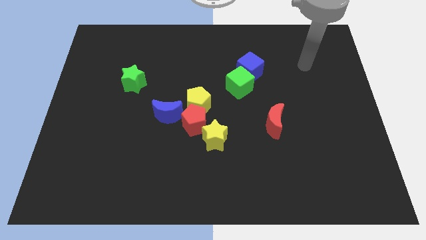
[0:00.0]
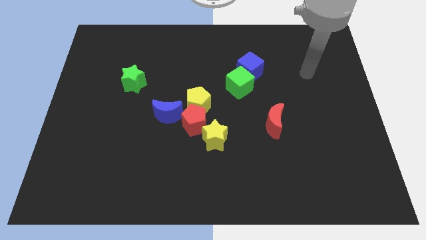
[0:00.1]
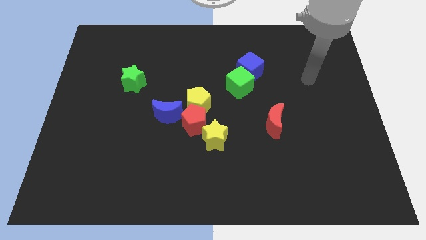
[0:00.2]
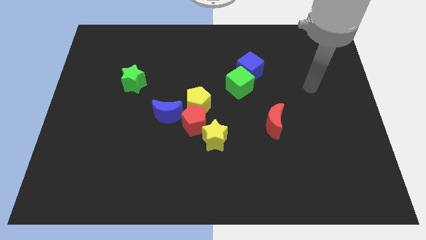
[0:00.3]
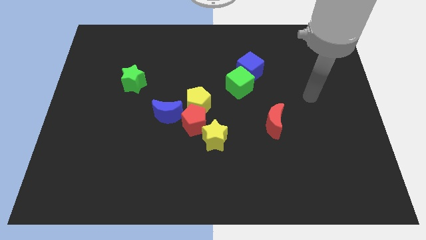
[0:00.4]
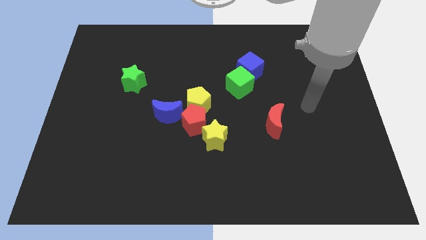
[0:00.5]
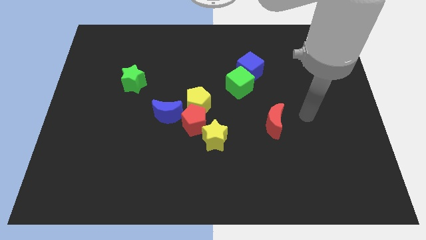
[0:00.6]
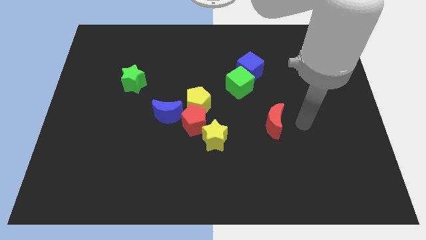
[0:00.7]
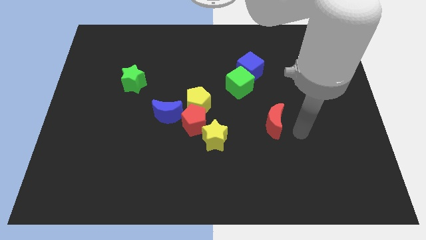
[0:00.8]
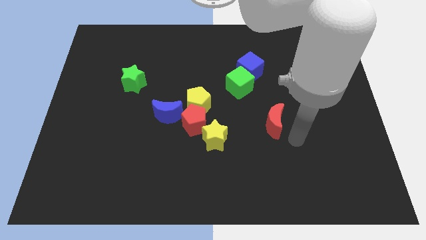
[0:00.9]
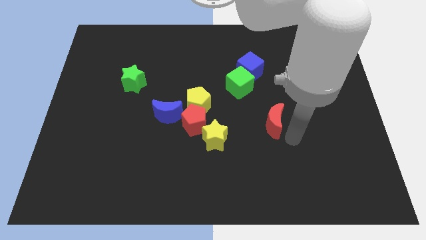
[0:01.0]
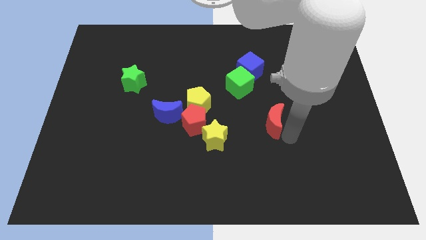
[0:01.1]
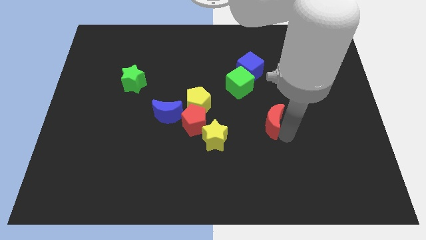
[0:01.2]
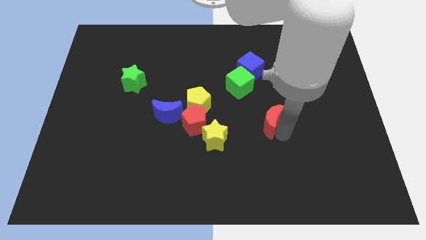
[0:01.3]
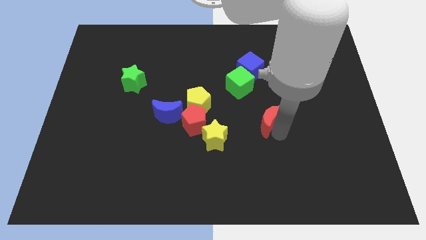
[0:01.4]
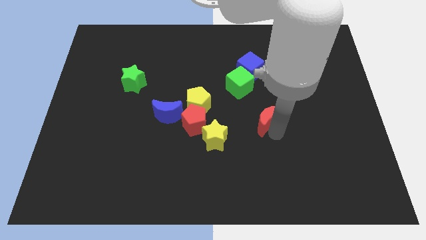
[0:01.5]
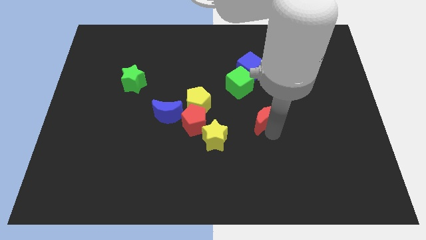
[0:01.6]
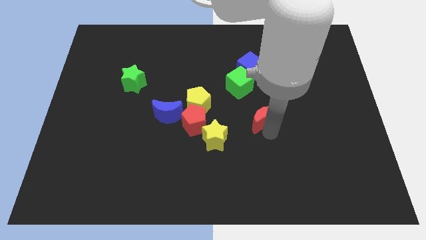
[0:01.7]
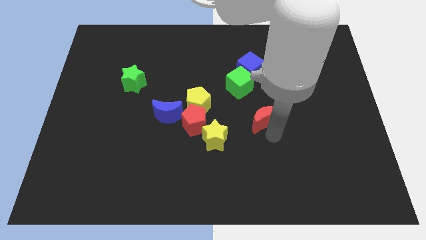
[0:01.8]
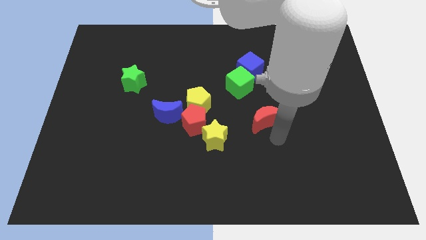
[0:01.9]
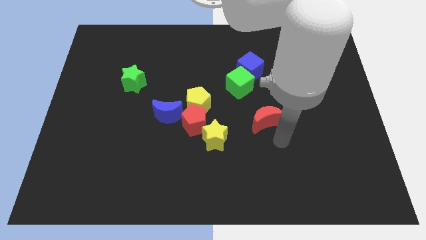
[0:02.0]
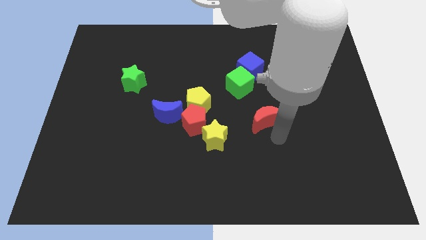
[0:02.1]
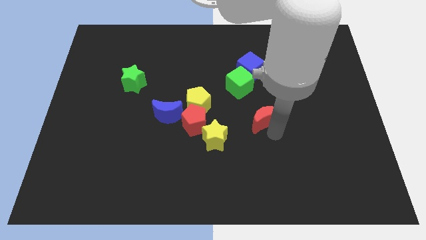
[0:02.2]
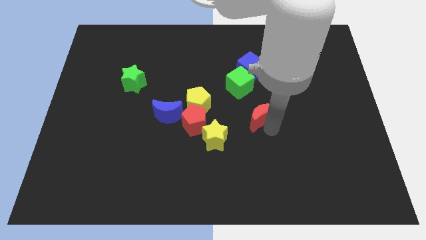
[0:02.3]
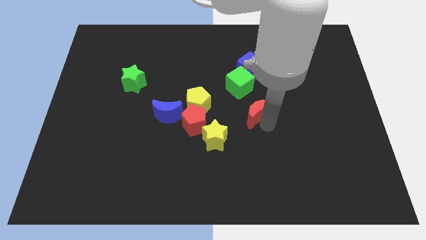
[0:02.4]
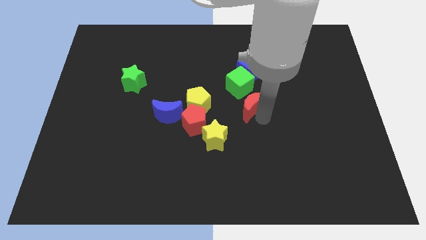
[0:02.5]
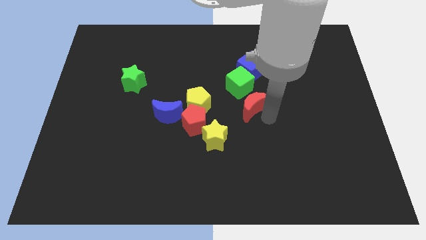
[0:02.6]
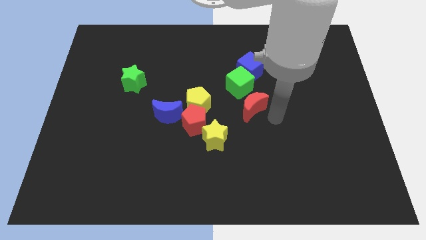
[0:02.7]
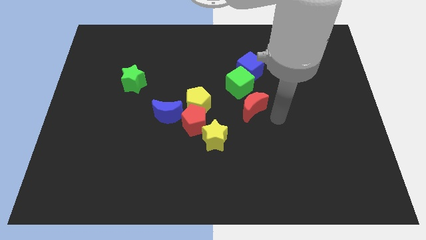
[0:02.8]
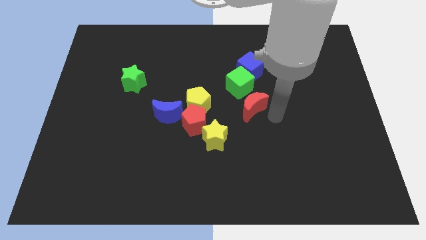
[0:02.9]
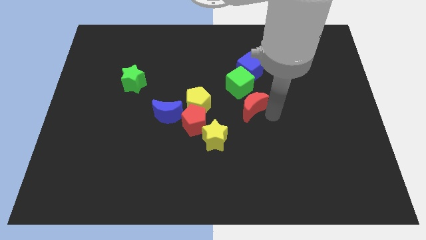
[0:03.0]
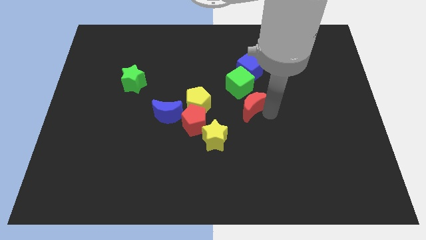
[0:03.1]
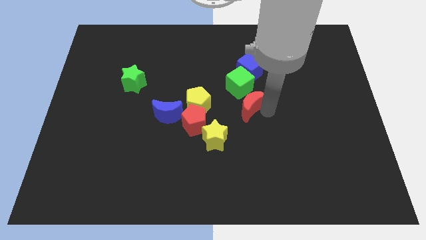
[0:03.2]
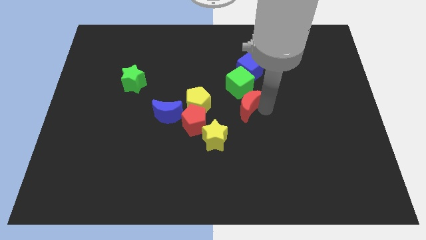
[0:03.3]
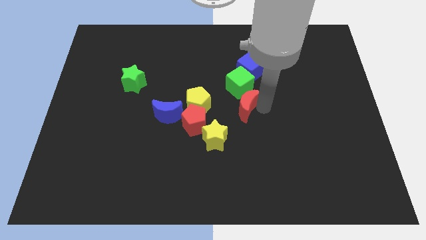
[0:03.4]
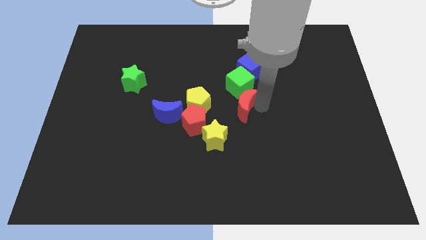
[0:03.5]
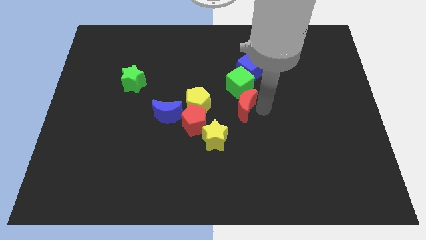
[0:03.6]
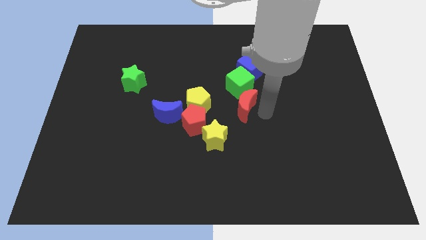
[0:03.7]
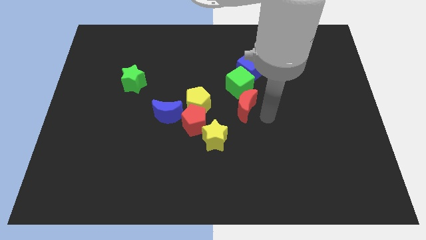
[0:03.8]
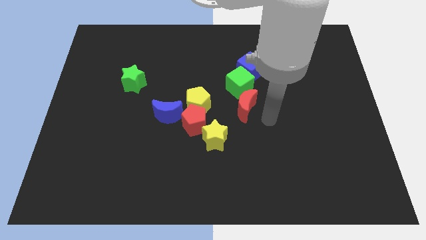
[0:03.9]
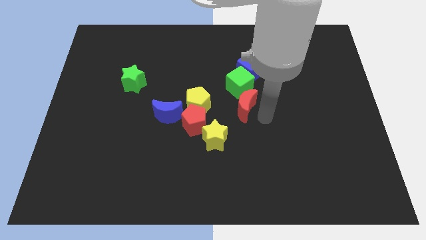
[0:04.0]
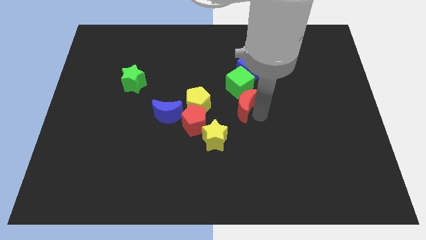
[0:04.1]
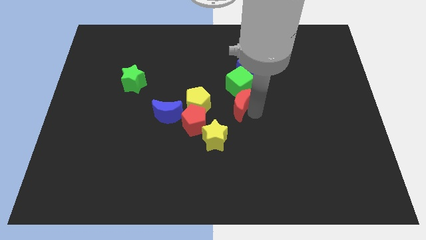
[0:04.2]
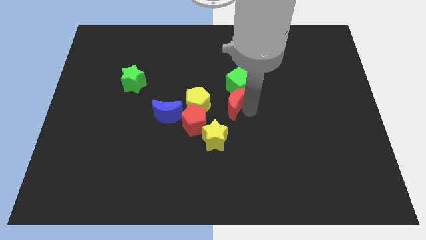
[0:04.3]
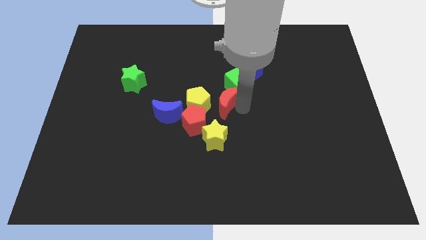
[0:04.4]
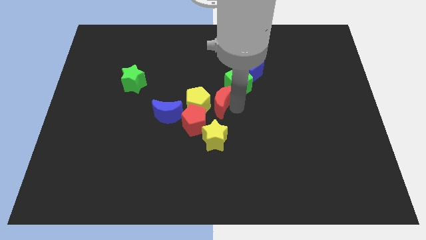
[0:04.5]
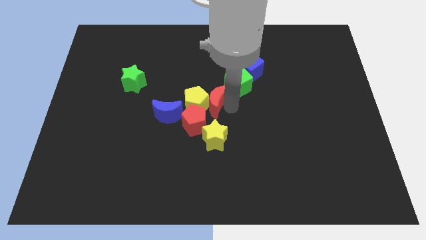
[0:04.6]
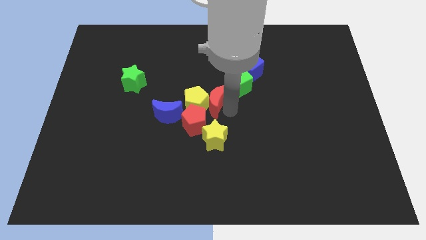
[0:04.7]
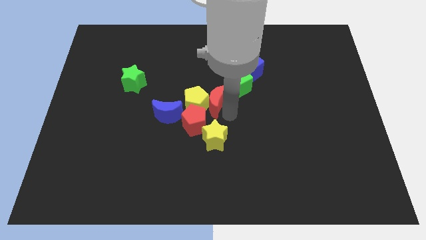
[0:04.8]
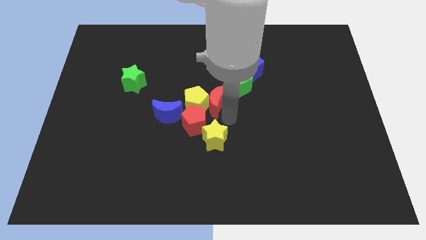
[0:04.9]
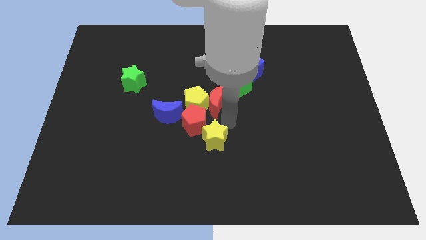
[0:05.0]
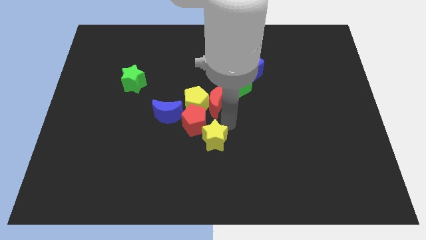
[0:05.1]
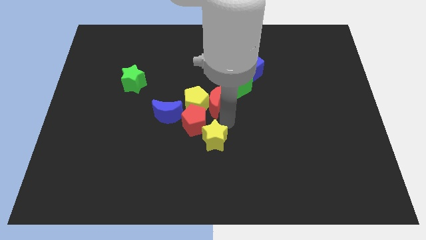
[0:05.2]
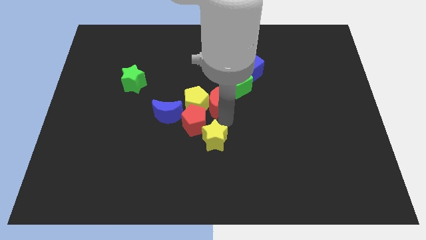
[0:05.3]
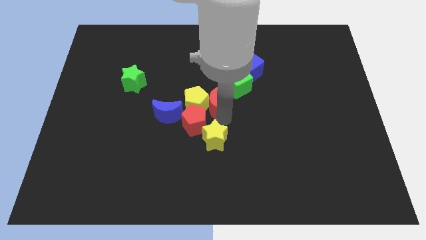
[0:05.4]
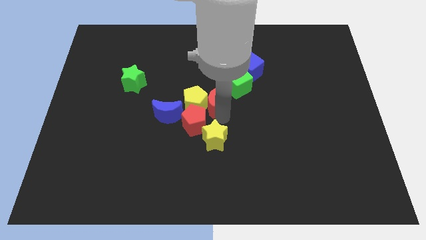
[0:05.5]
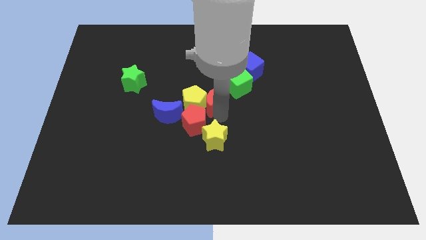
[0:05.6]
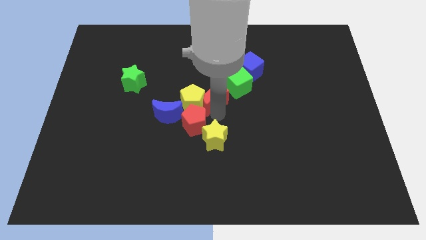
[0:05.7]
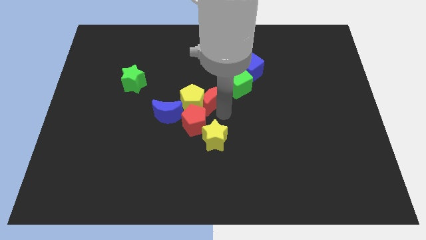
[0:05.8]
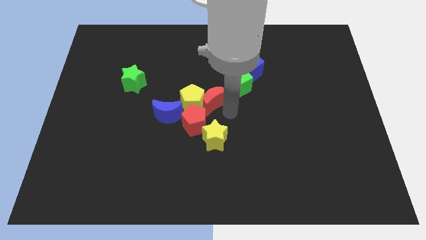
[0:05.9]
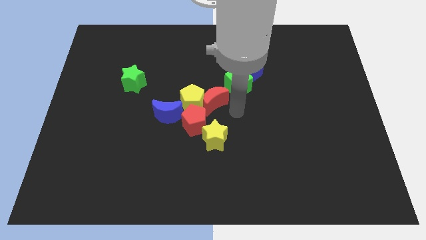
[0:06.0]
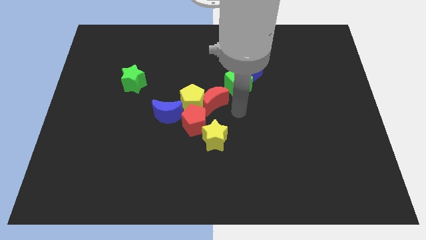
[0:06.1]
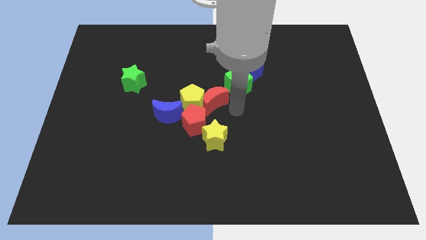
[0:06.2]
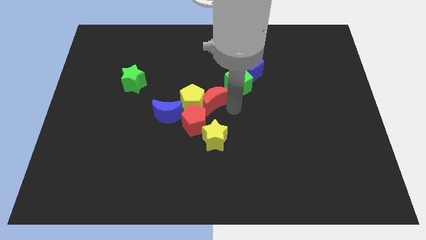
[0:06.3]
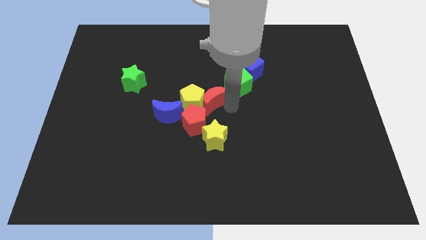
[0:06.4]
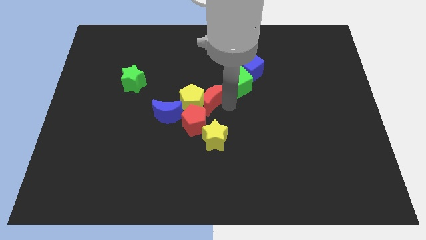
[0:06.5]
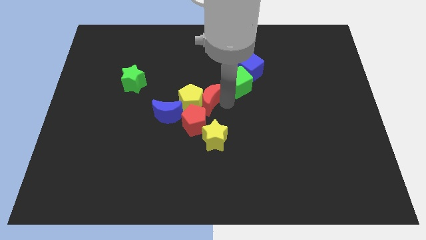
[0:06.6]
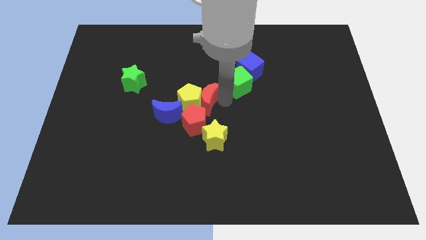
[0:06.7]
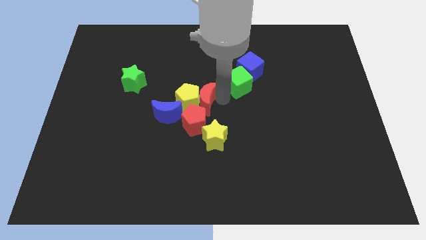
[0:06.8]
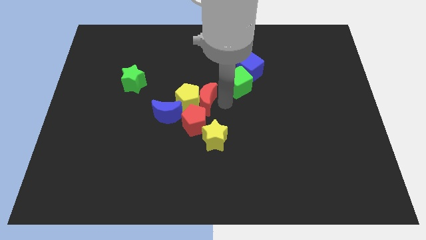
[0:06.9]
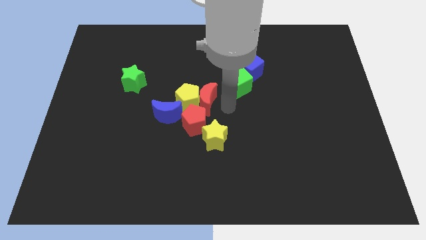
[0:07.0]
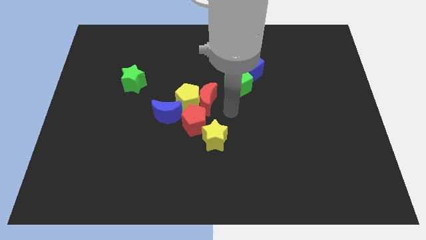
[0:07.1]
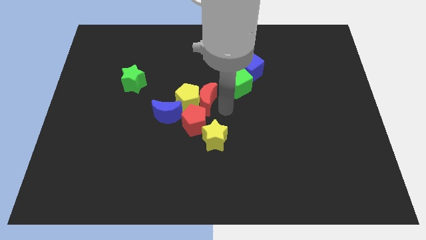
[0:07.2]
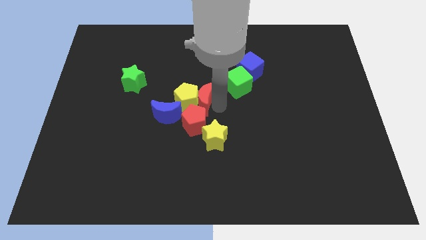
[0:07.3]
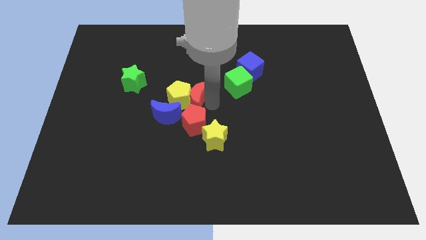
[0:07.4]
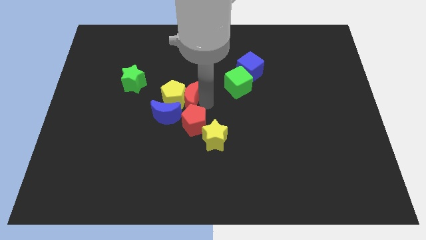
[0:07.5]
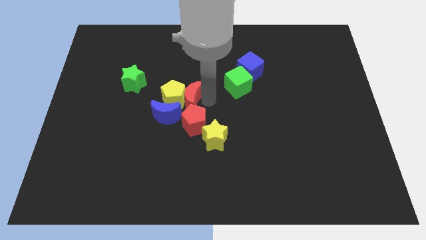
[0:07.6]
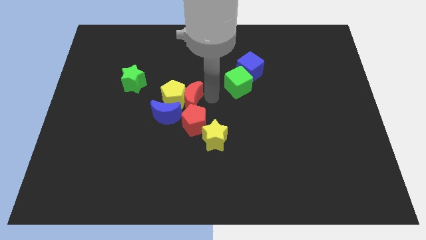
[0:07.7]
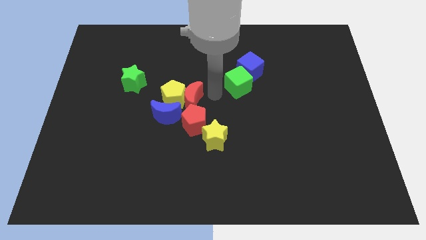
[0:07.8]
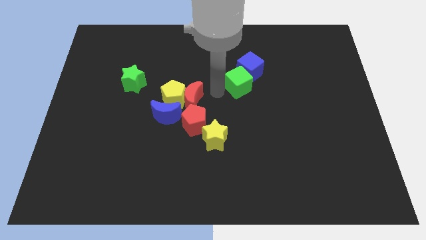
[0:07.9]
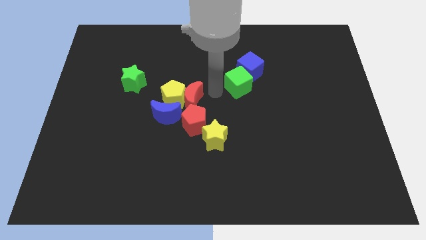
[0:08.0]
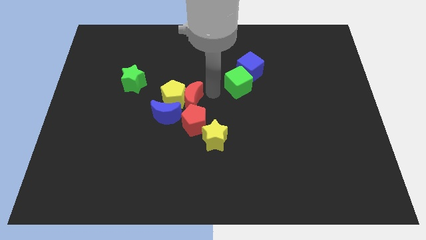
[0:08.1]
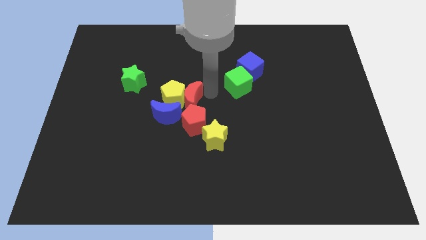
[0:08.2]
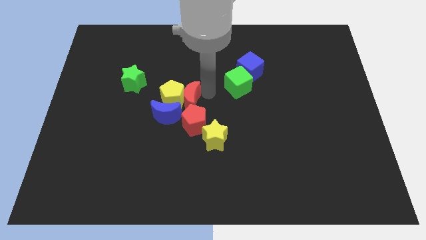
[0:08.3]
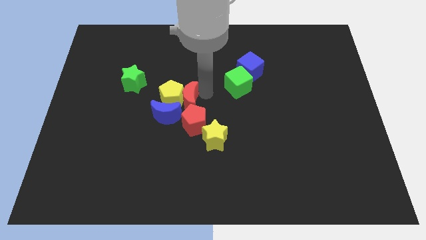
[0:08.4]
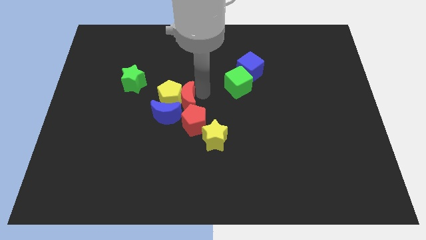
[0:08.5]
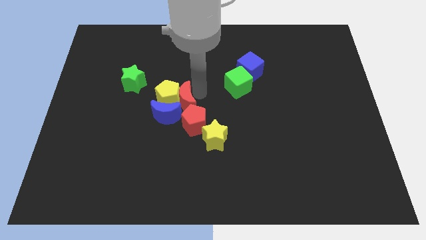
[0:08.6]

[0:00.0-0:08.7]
put the red moon to the blue moon
